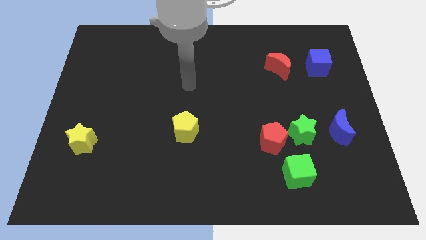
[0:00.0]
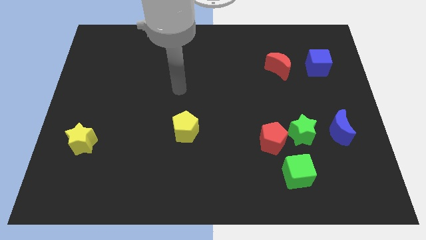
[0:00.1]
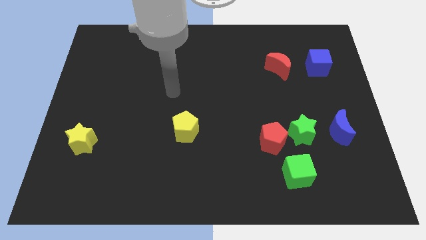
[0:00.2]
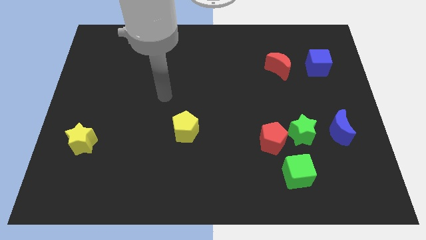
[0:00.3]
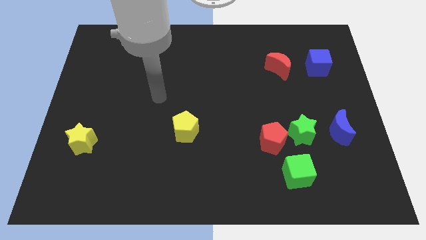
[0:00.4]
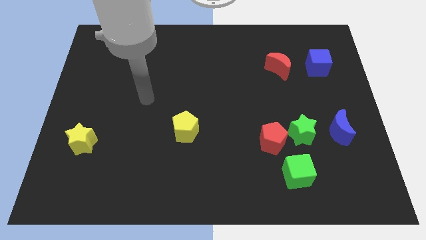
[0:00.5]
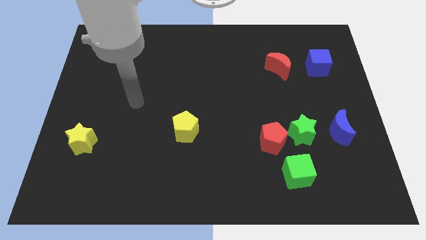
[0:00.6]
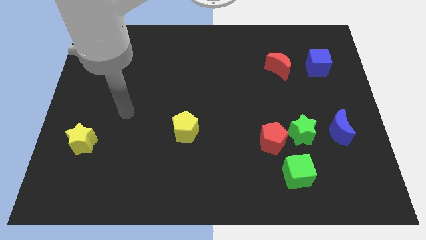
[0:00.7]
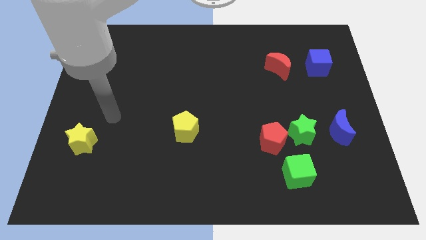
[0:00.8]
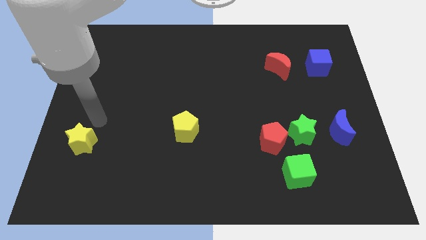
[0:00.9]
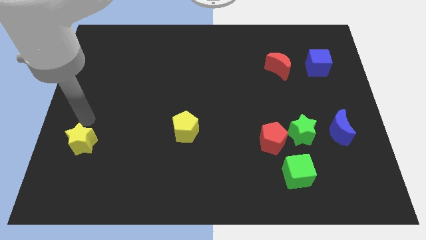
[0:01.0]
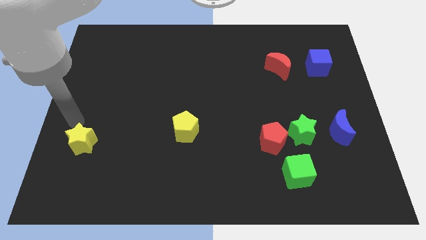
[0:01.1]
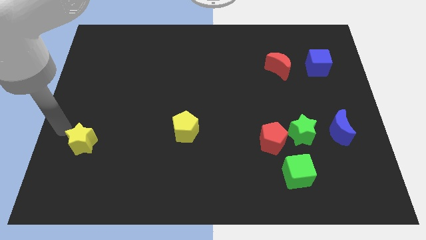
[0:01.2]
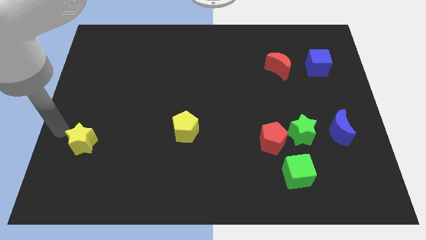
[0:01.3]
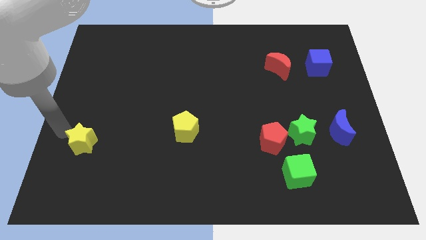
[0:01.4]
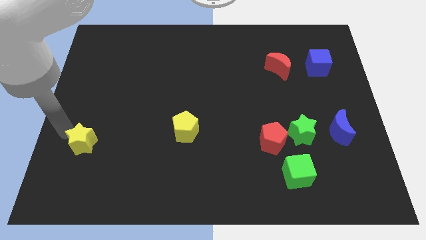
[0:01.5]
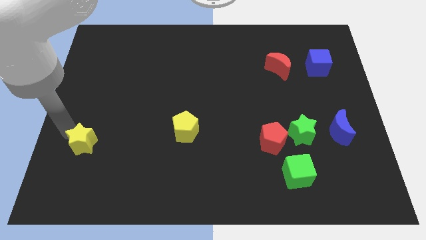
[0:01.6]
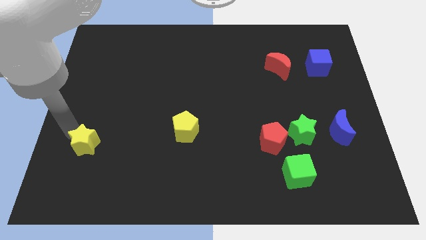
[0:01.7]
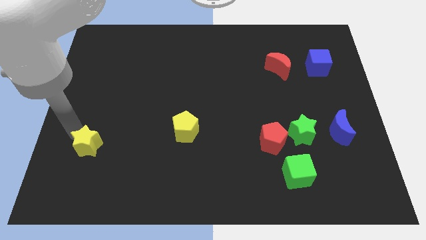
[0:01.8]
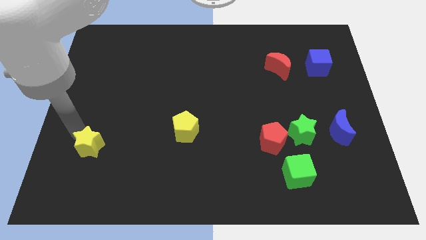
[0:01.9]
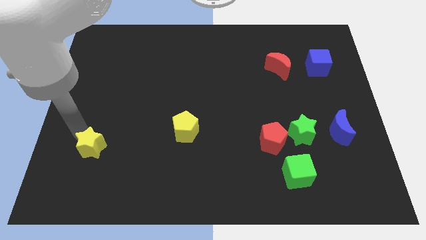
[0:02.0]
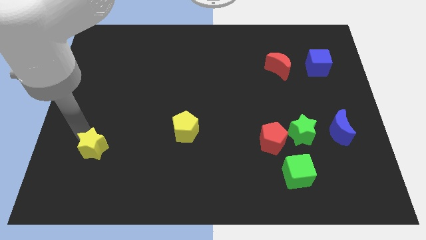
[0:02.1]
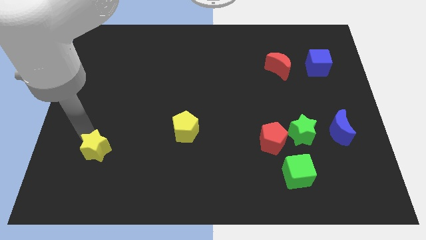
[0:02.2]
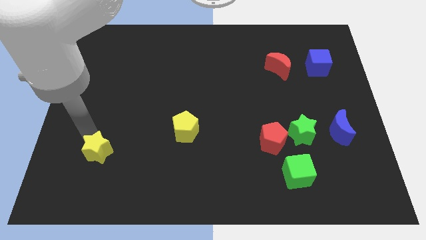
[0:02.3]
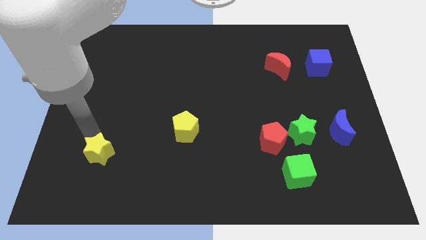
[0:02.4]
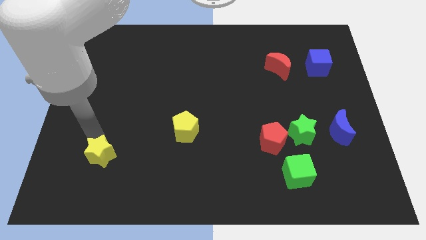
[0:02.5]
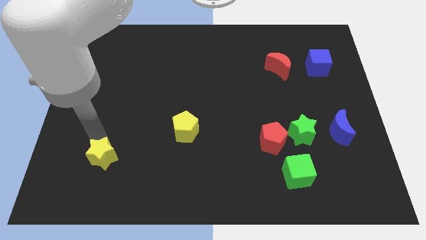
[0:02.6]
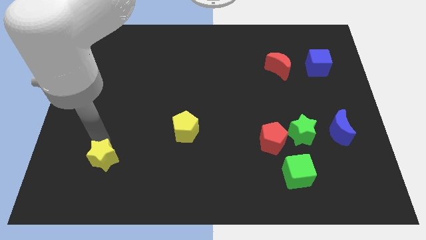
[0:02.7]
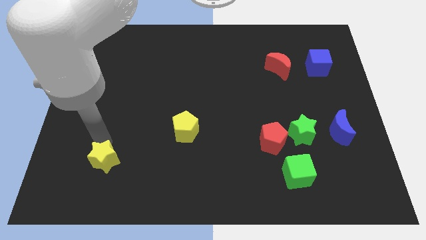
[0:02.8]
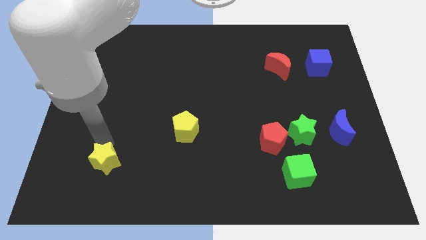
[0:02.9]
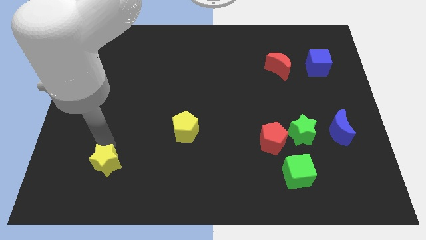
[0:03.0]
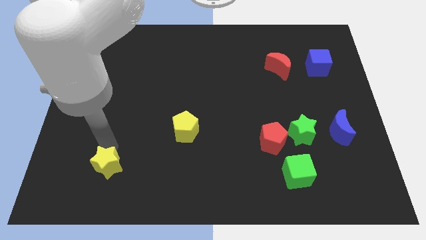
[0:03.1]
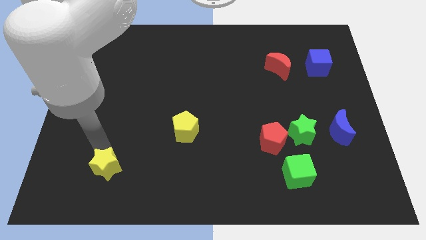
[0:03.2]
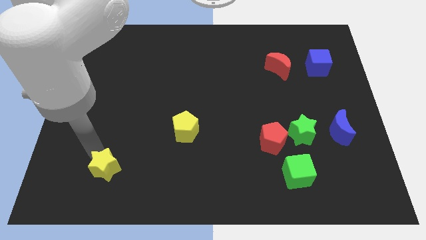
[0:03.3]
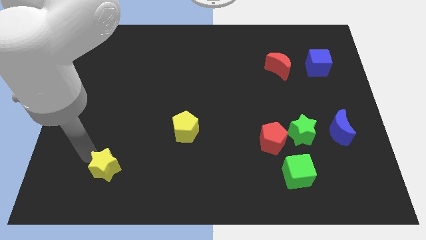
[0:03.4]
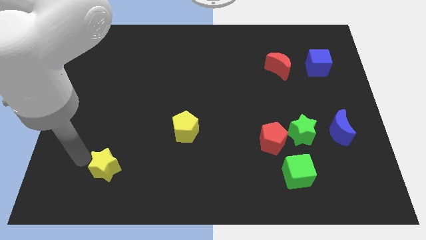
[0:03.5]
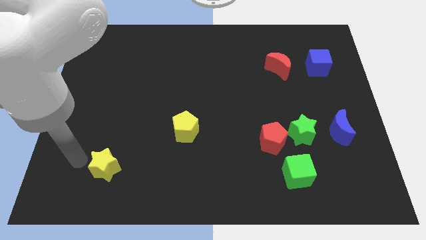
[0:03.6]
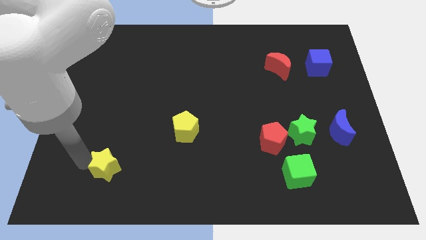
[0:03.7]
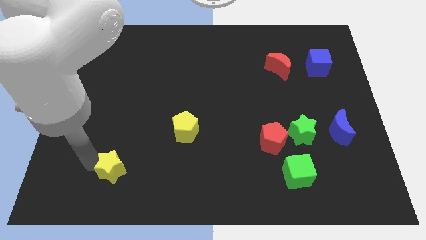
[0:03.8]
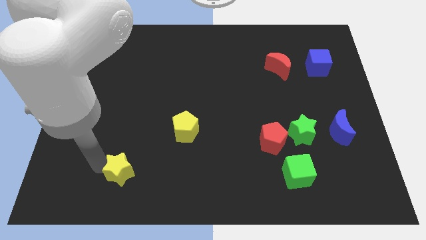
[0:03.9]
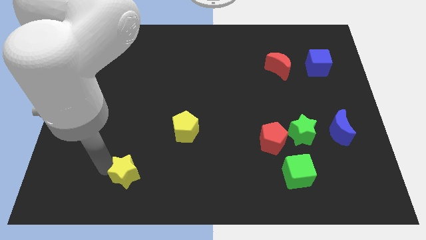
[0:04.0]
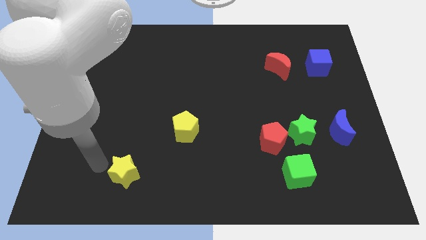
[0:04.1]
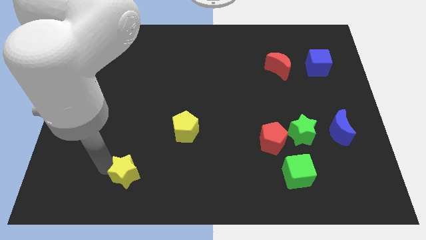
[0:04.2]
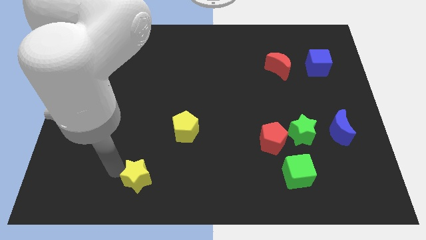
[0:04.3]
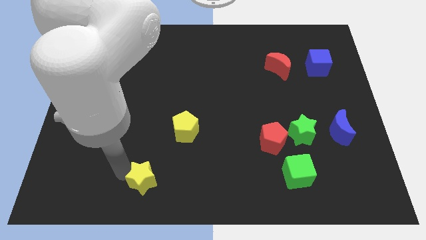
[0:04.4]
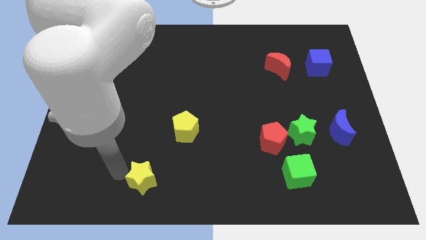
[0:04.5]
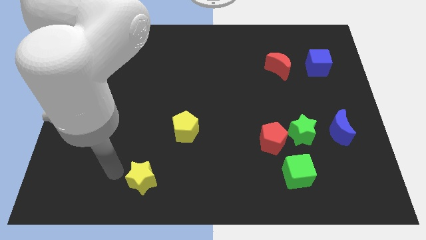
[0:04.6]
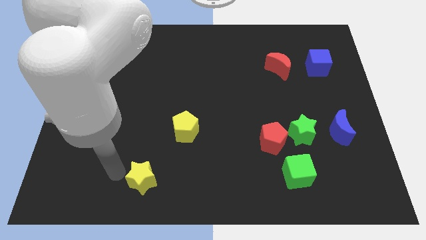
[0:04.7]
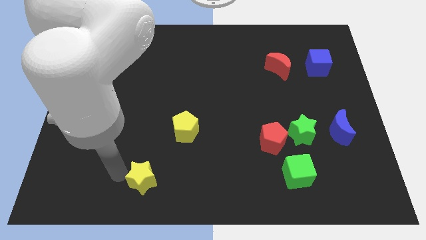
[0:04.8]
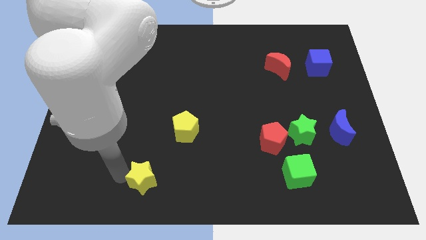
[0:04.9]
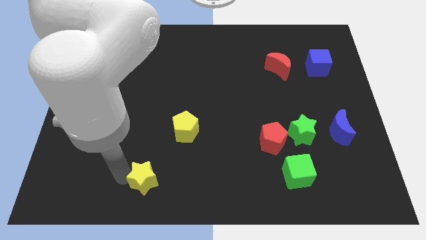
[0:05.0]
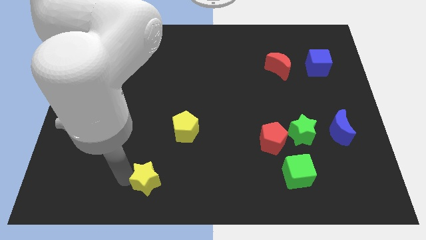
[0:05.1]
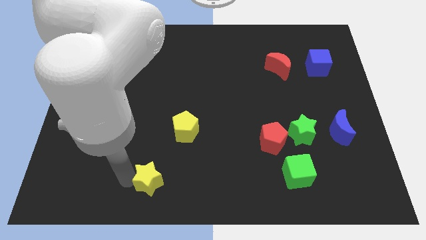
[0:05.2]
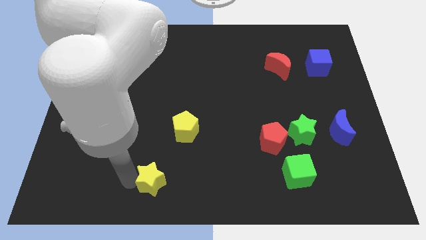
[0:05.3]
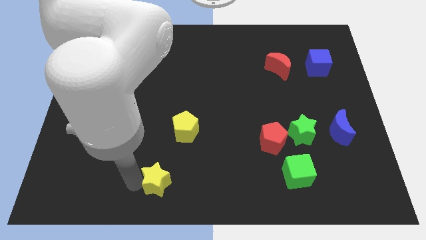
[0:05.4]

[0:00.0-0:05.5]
push the yellow star to the bottom side
